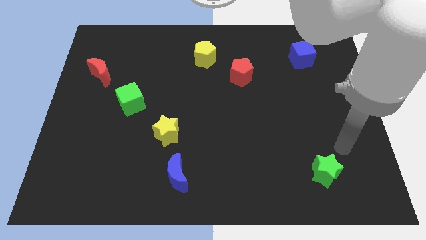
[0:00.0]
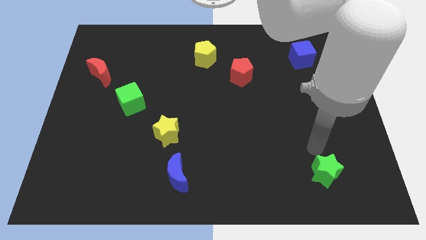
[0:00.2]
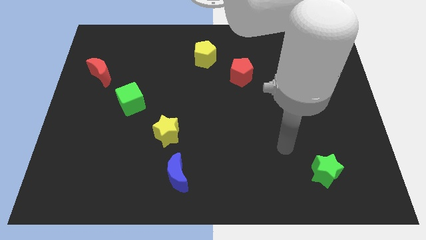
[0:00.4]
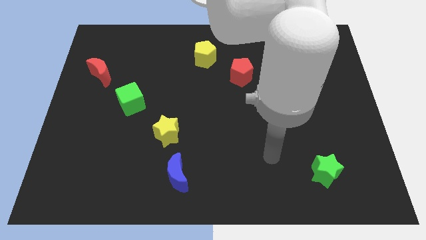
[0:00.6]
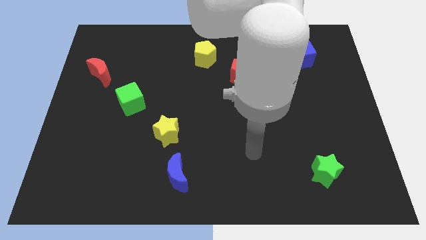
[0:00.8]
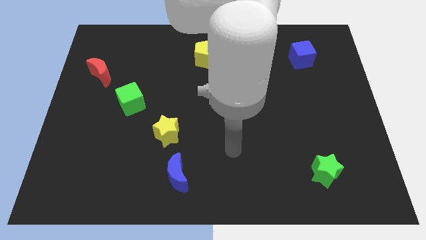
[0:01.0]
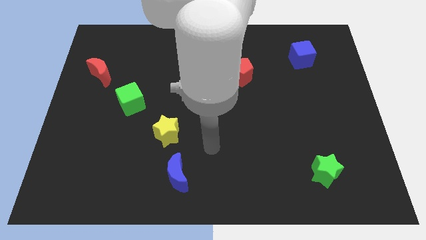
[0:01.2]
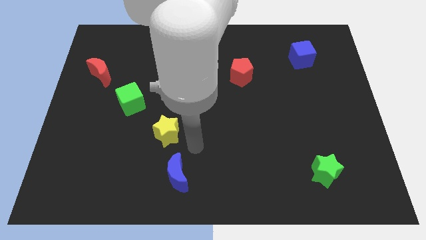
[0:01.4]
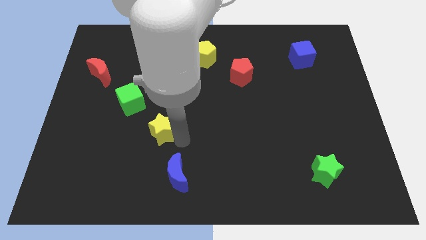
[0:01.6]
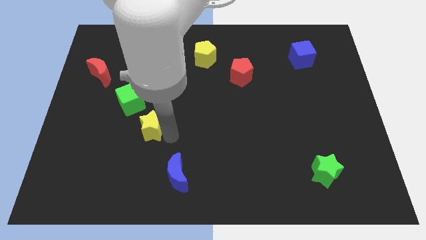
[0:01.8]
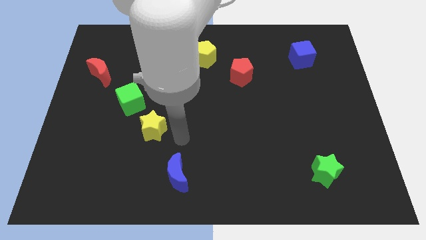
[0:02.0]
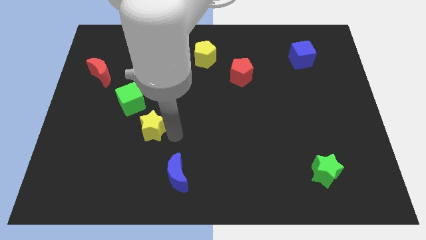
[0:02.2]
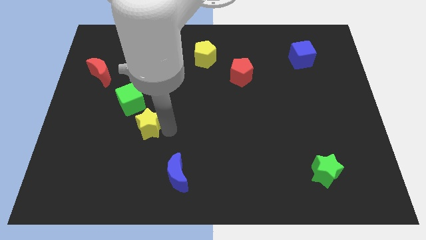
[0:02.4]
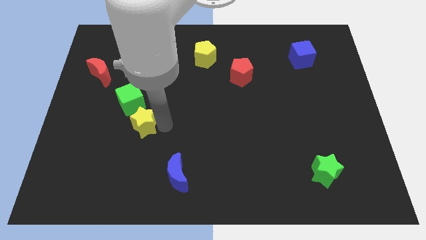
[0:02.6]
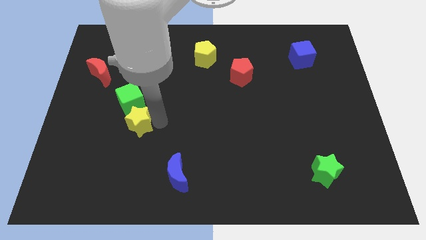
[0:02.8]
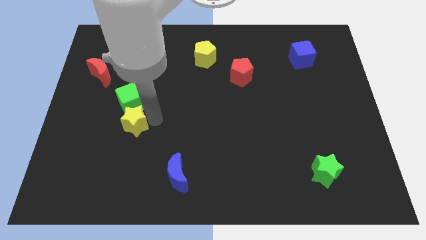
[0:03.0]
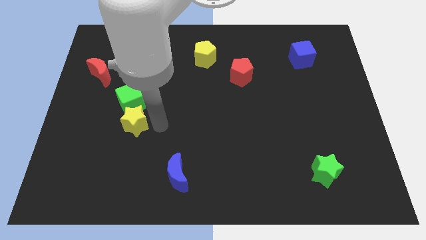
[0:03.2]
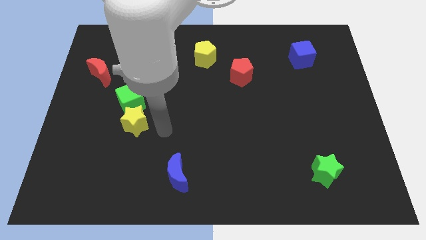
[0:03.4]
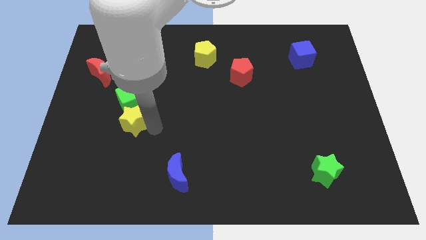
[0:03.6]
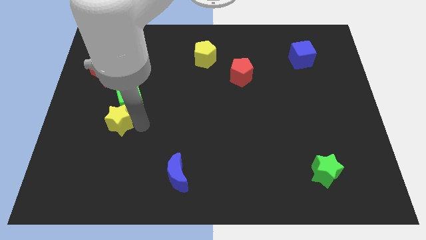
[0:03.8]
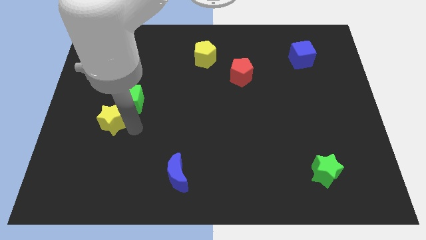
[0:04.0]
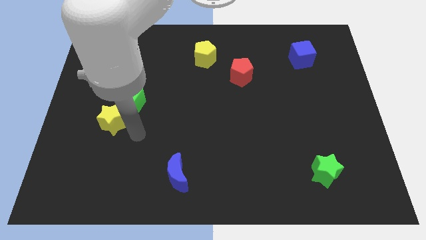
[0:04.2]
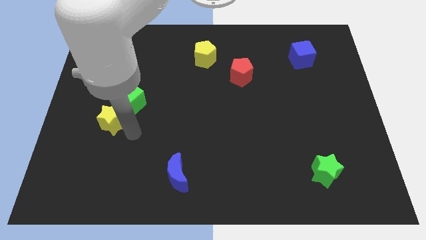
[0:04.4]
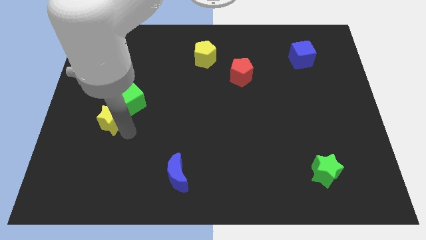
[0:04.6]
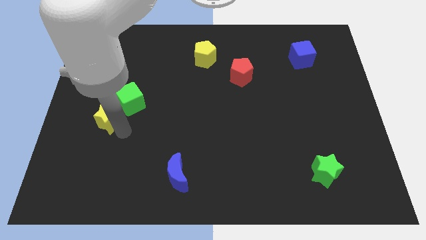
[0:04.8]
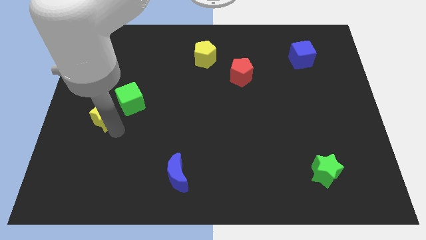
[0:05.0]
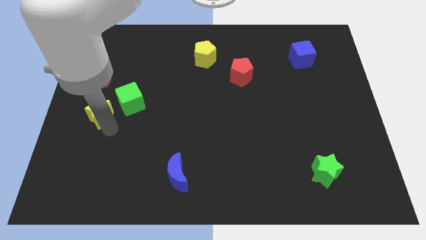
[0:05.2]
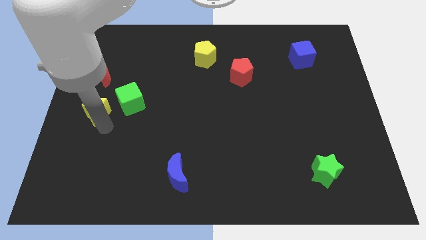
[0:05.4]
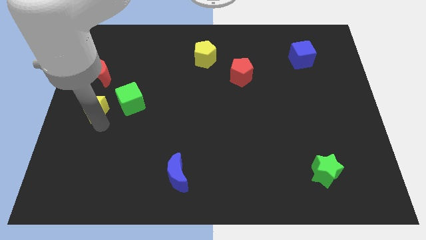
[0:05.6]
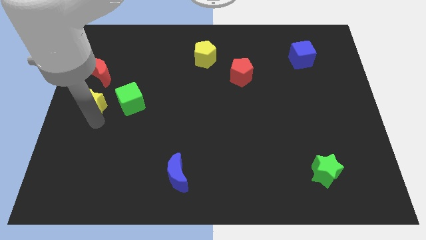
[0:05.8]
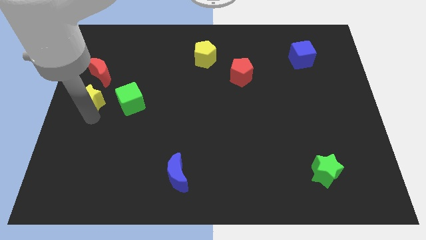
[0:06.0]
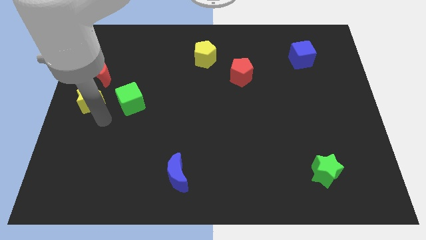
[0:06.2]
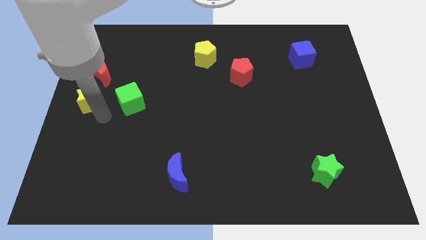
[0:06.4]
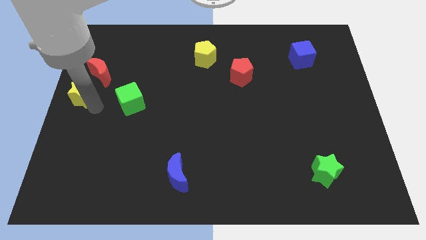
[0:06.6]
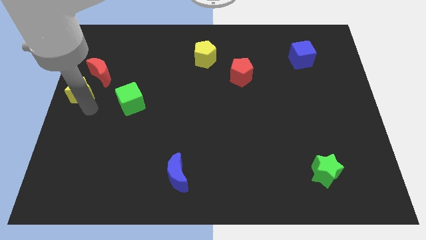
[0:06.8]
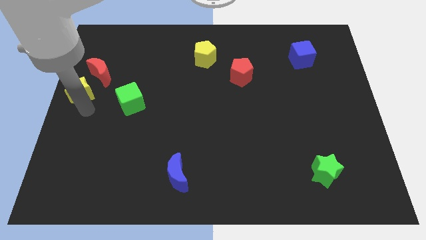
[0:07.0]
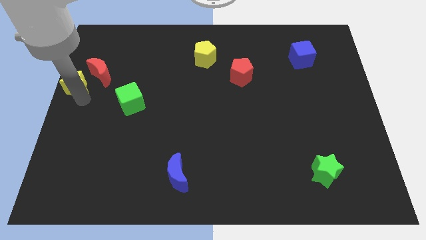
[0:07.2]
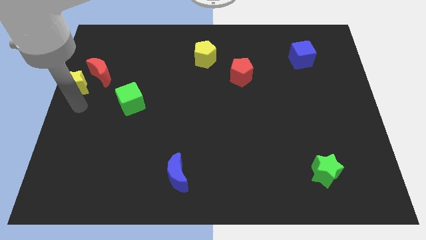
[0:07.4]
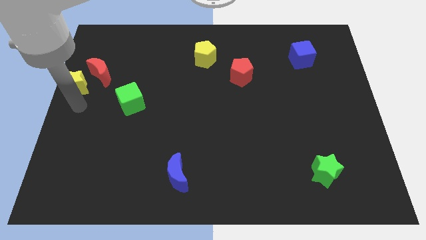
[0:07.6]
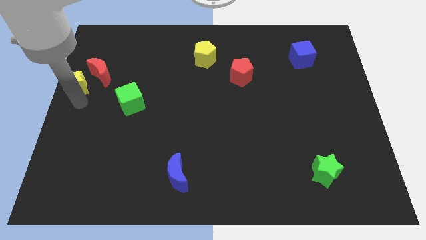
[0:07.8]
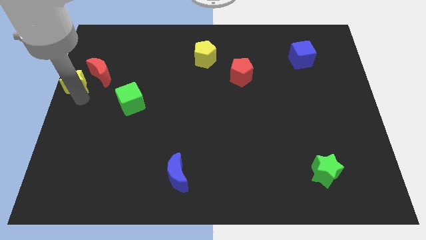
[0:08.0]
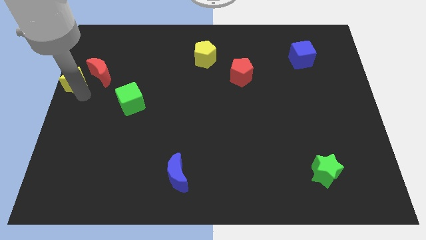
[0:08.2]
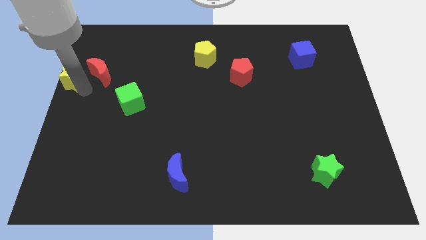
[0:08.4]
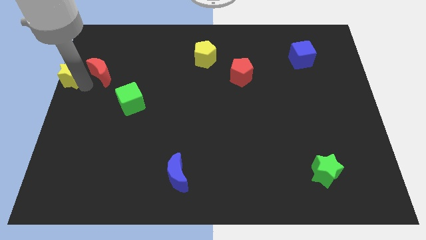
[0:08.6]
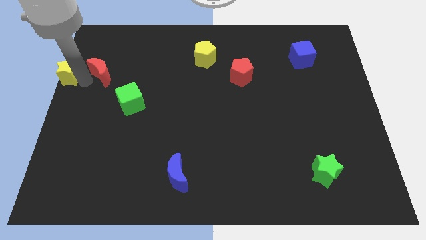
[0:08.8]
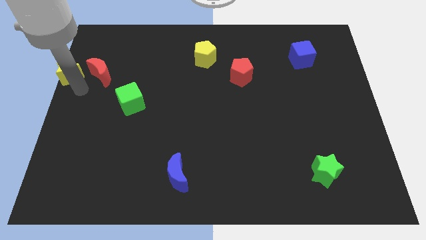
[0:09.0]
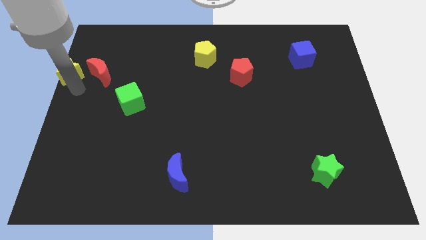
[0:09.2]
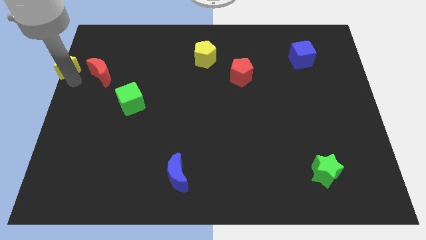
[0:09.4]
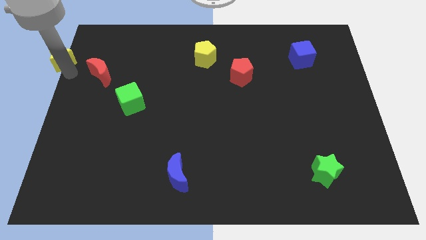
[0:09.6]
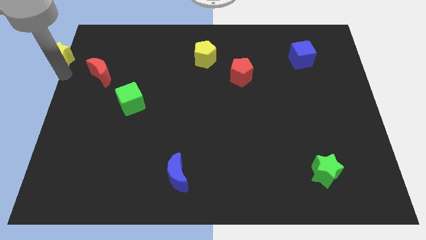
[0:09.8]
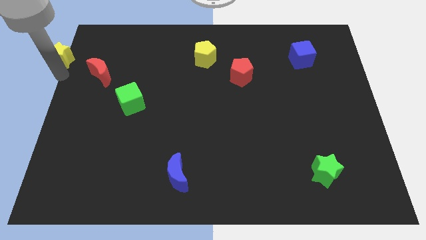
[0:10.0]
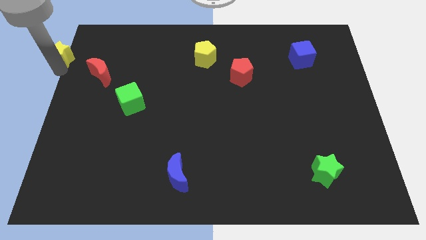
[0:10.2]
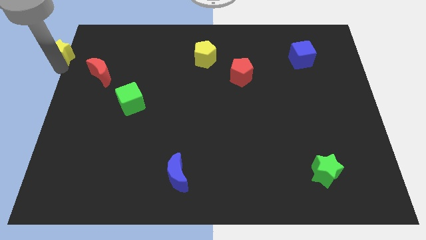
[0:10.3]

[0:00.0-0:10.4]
slide the yellow star to the top left of the board
